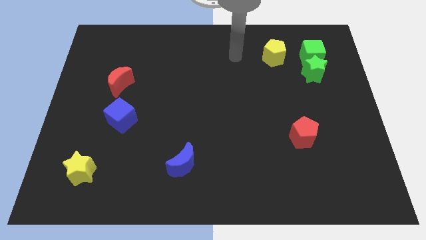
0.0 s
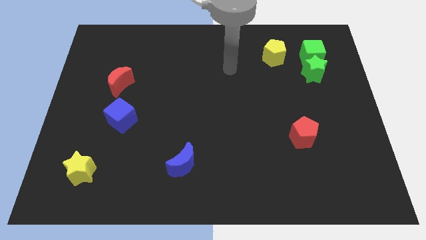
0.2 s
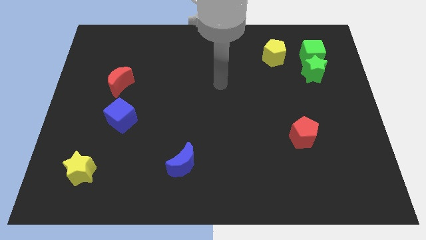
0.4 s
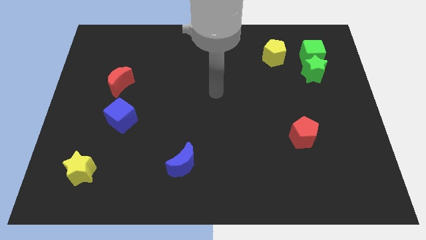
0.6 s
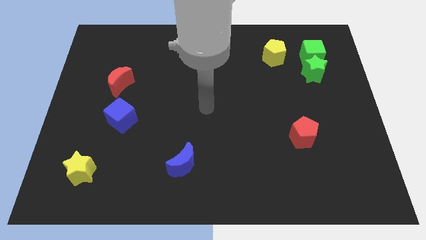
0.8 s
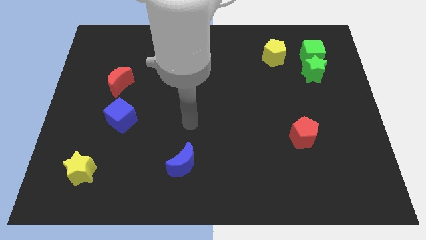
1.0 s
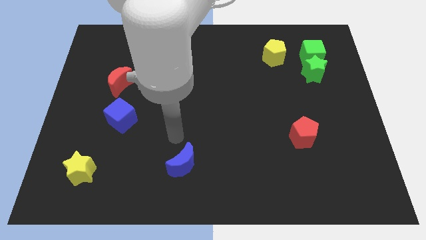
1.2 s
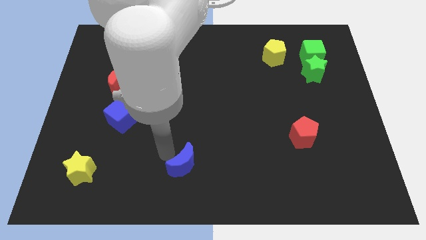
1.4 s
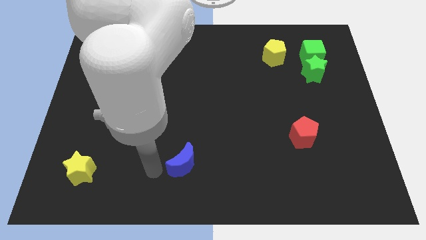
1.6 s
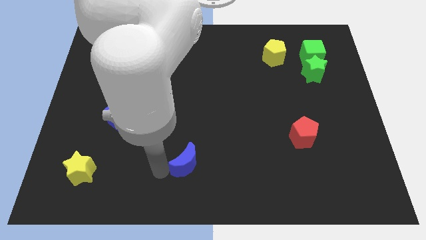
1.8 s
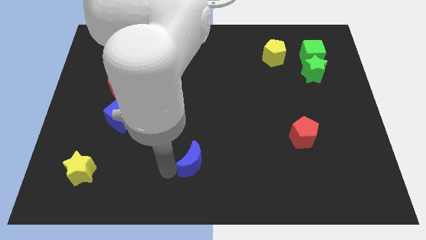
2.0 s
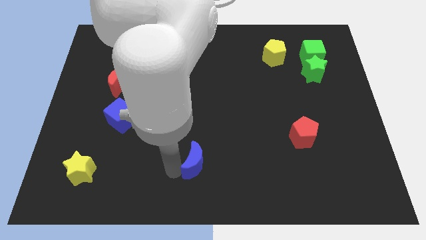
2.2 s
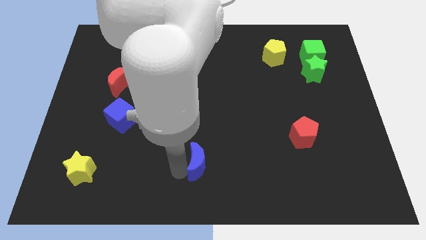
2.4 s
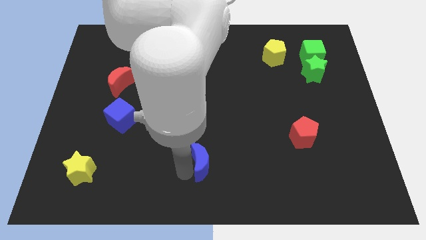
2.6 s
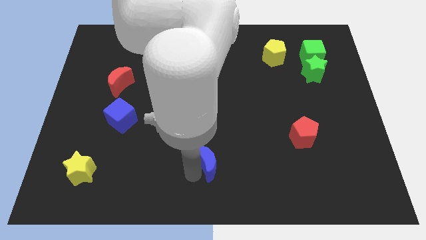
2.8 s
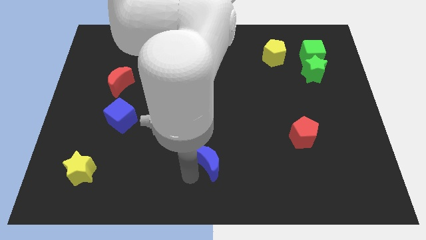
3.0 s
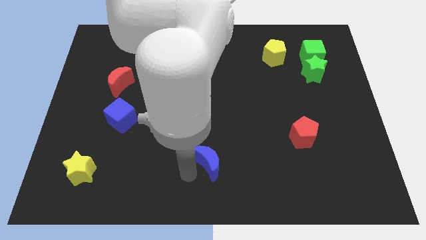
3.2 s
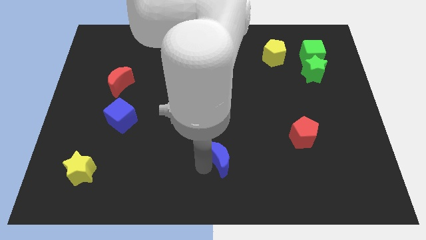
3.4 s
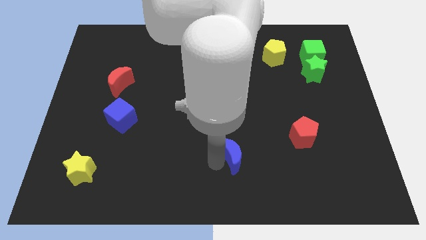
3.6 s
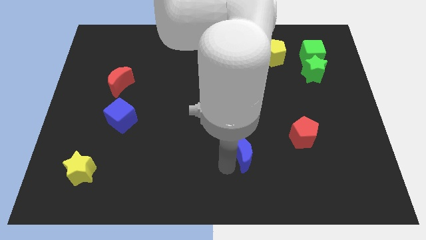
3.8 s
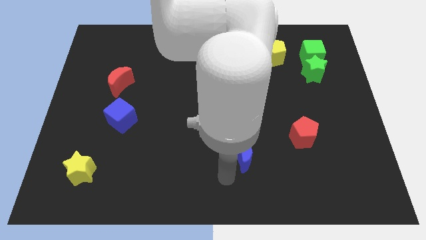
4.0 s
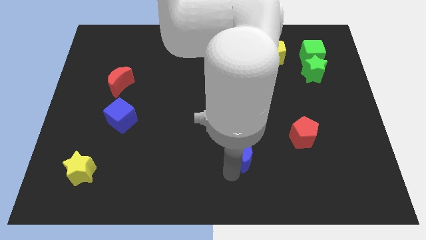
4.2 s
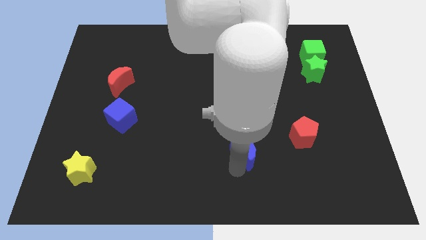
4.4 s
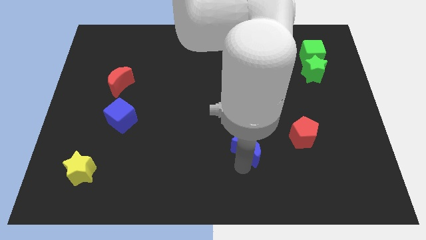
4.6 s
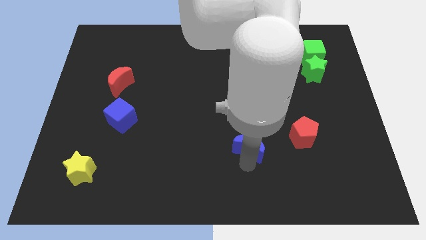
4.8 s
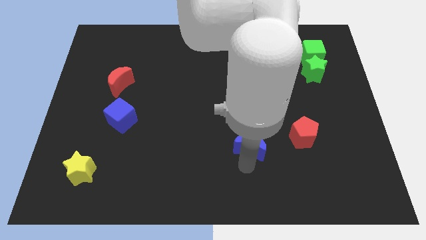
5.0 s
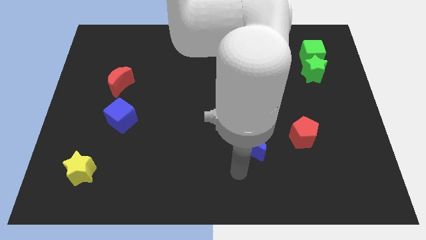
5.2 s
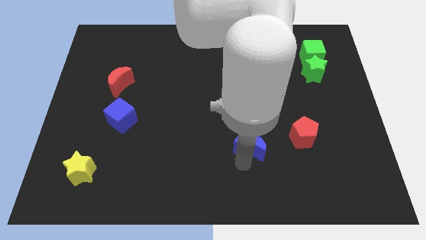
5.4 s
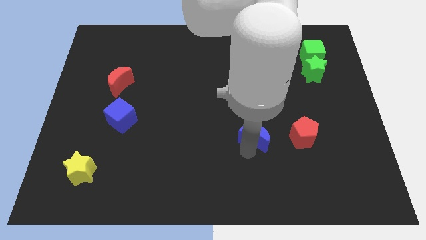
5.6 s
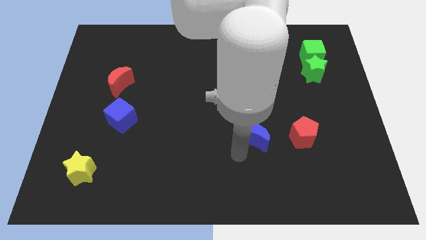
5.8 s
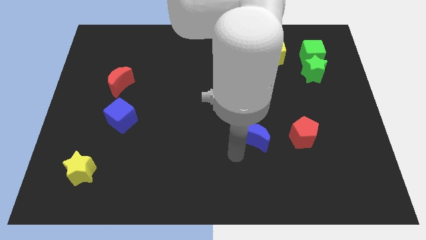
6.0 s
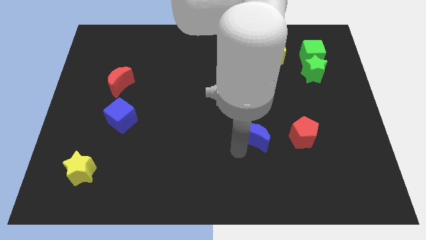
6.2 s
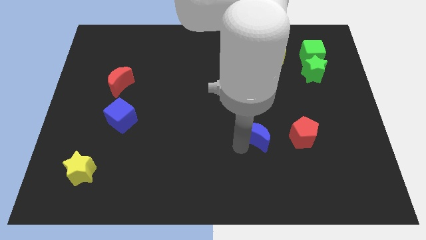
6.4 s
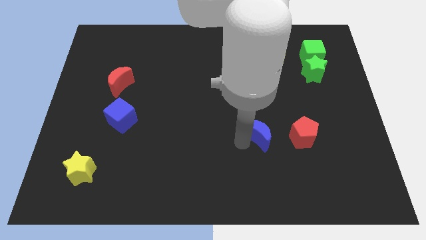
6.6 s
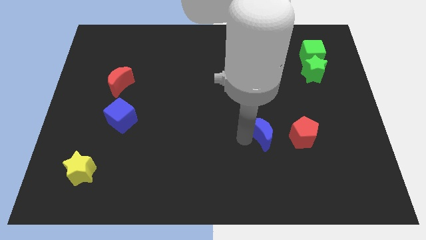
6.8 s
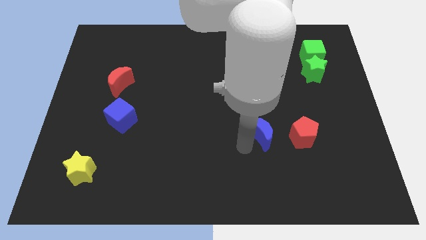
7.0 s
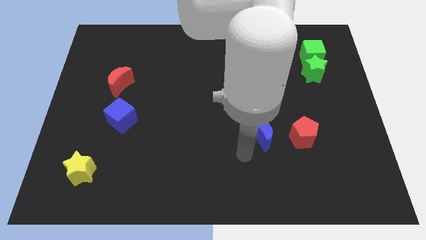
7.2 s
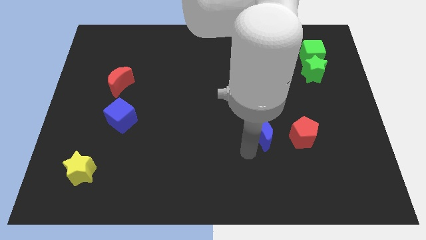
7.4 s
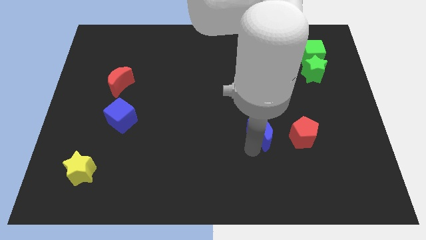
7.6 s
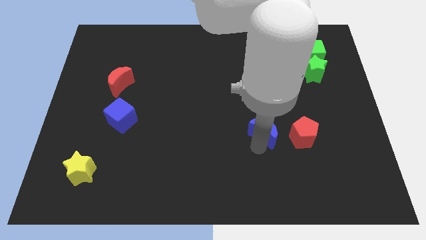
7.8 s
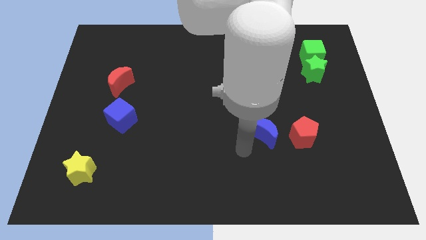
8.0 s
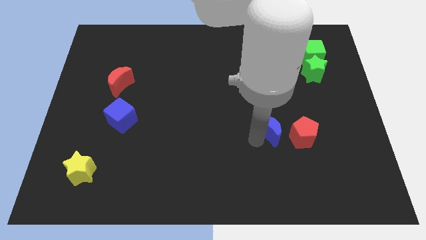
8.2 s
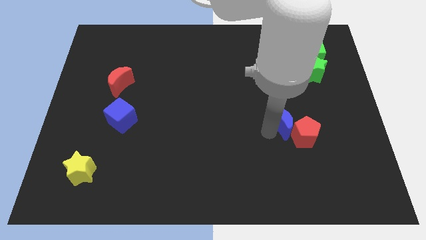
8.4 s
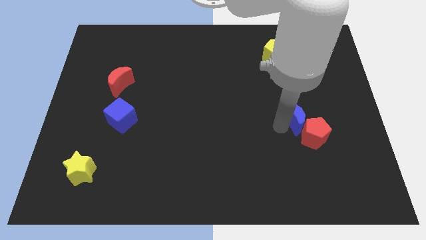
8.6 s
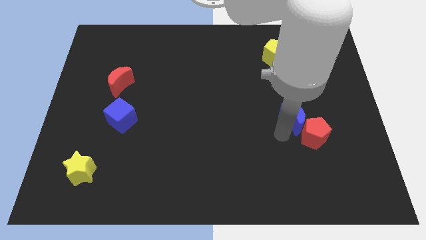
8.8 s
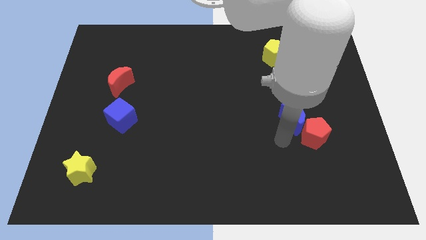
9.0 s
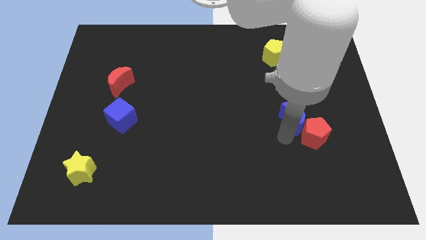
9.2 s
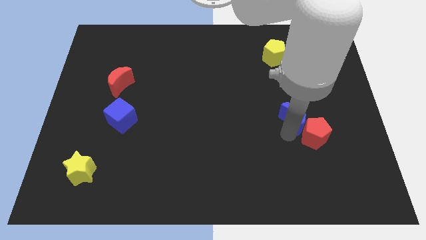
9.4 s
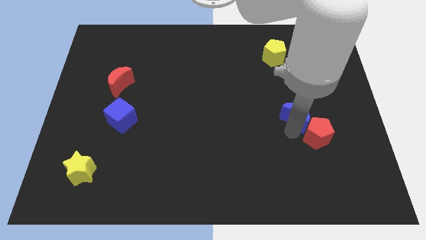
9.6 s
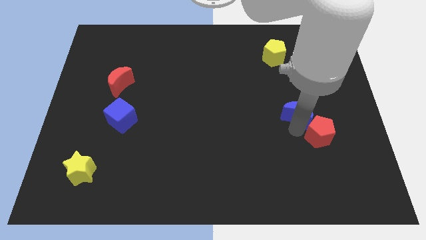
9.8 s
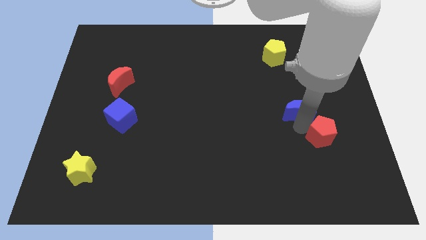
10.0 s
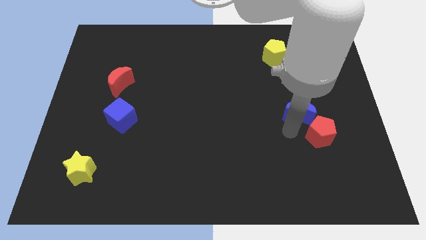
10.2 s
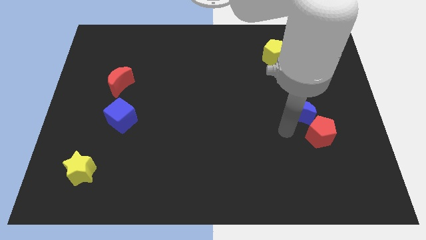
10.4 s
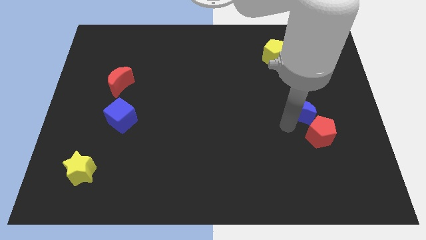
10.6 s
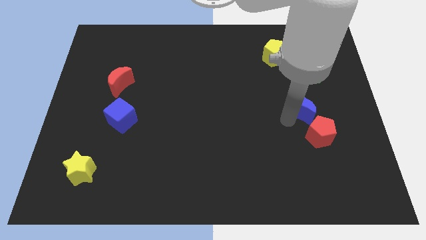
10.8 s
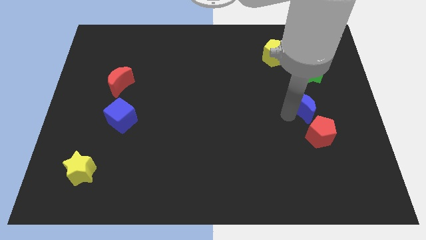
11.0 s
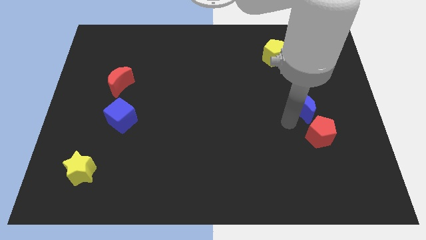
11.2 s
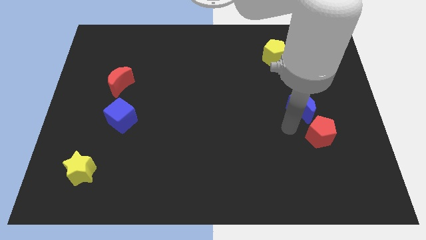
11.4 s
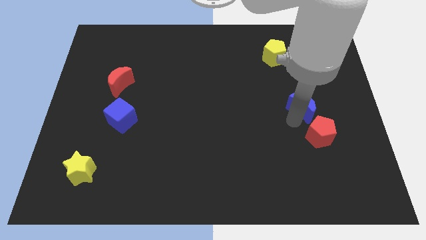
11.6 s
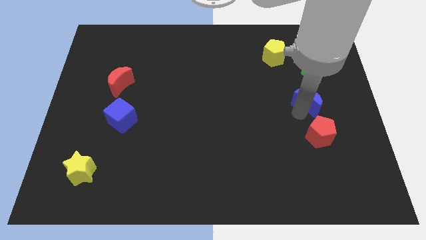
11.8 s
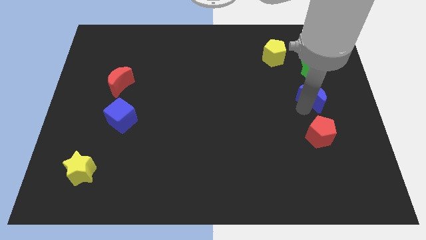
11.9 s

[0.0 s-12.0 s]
put the blue moon to the bottom of the green cube
